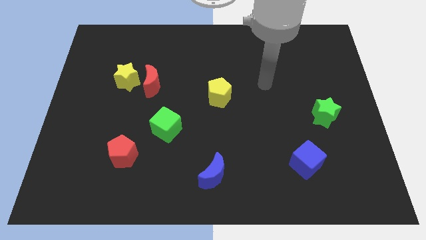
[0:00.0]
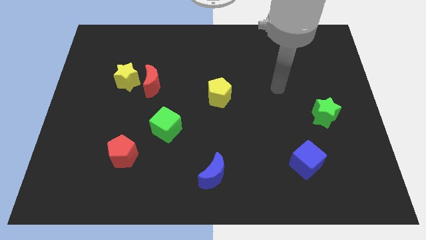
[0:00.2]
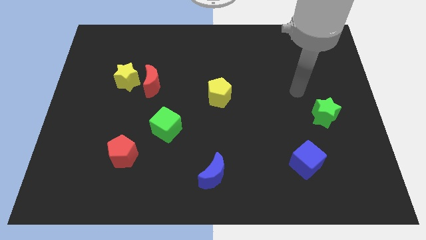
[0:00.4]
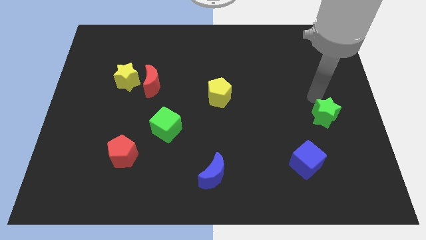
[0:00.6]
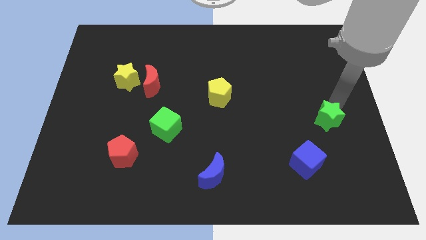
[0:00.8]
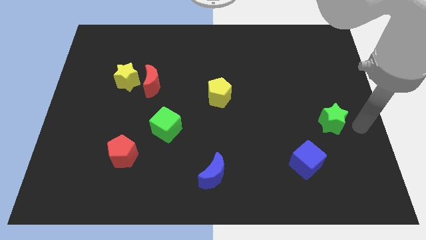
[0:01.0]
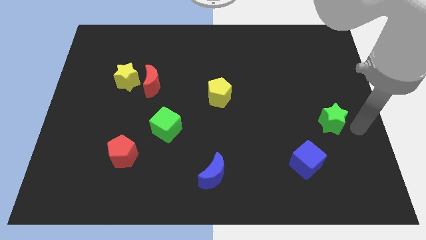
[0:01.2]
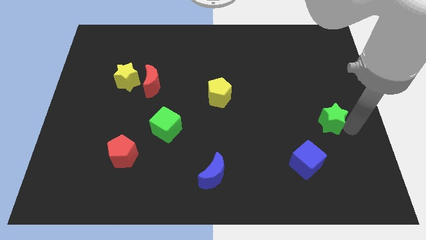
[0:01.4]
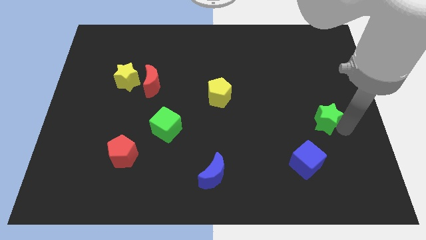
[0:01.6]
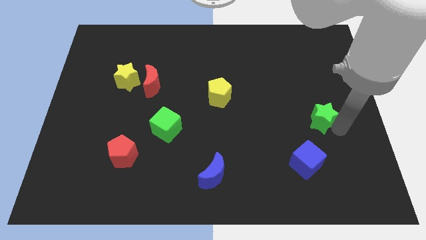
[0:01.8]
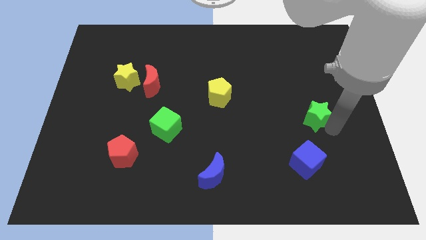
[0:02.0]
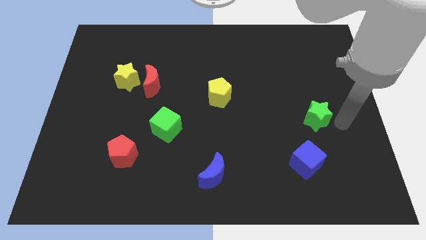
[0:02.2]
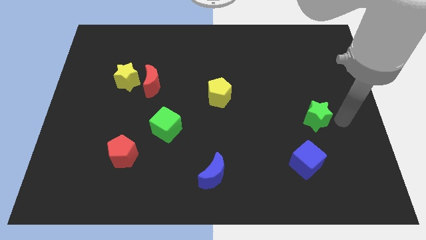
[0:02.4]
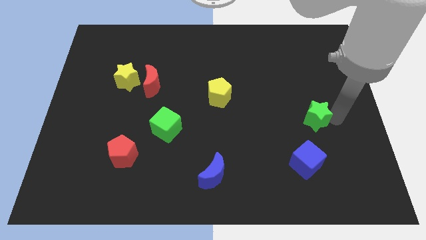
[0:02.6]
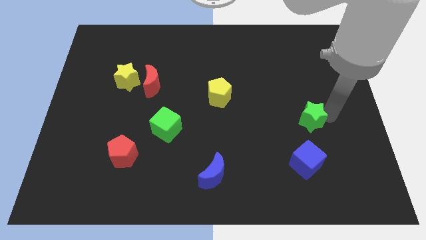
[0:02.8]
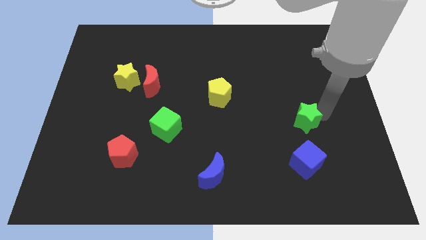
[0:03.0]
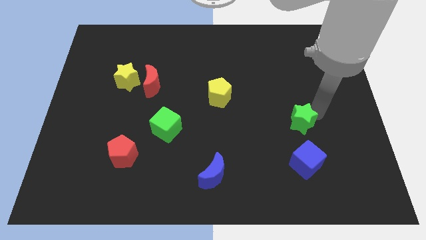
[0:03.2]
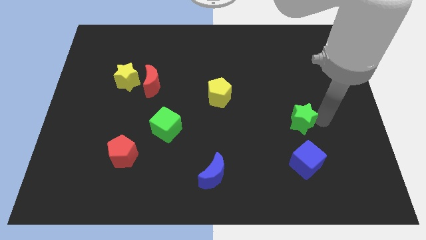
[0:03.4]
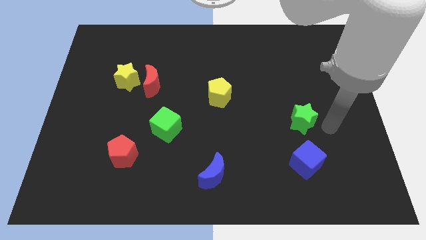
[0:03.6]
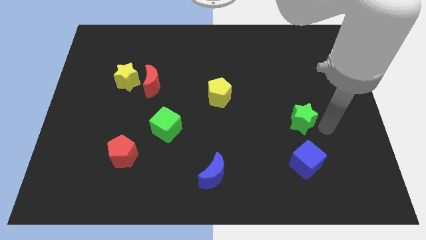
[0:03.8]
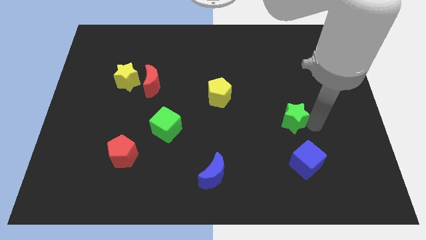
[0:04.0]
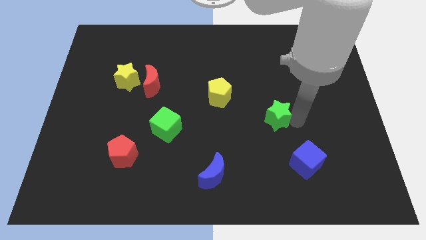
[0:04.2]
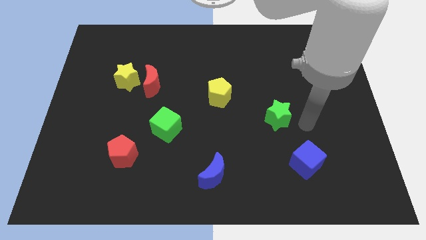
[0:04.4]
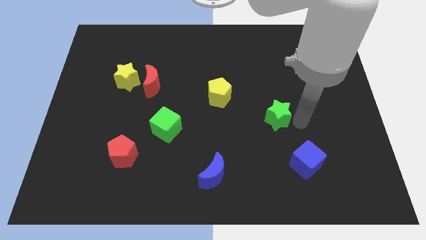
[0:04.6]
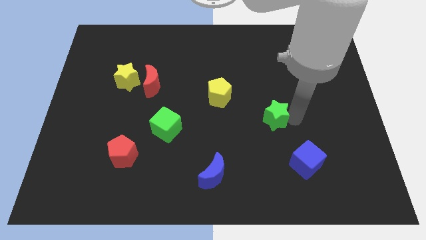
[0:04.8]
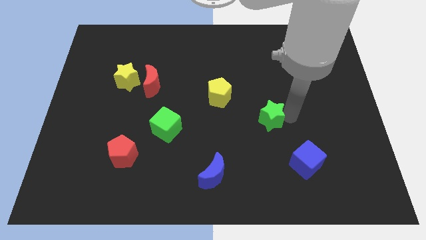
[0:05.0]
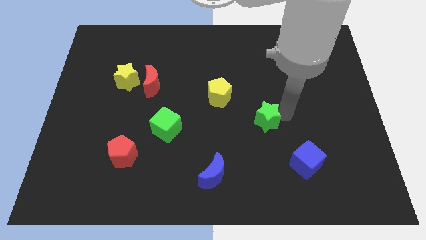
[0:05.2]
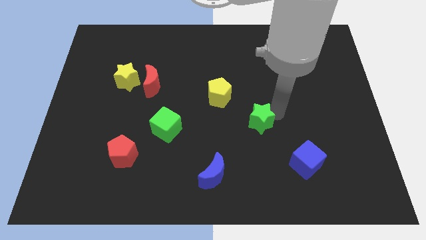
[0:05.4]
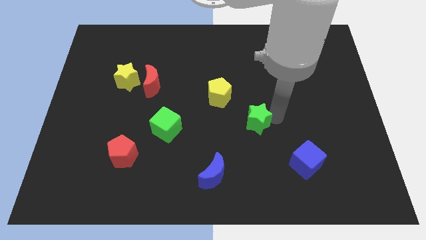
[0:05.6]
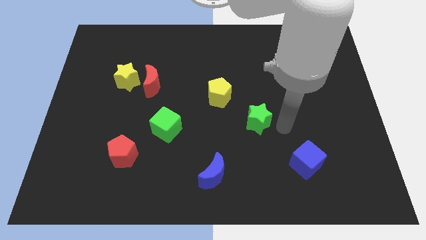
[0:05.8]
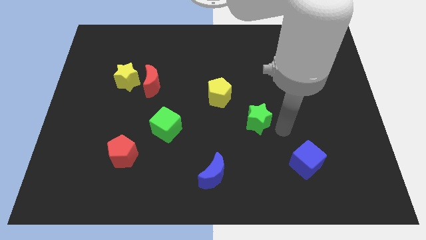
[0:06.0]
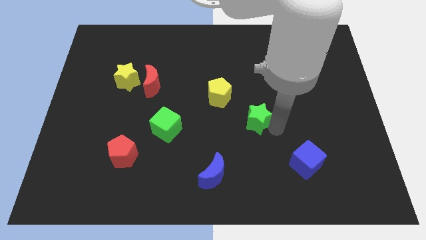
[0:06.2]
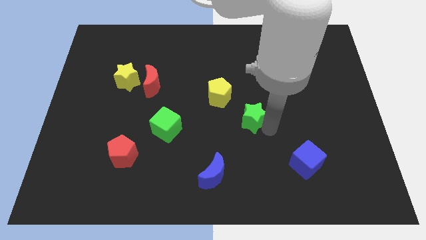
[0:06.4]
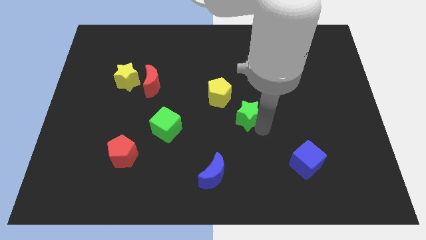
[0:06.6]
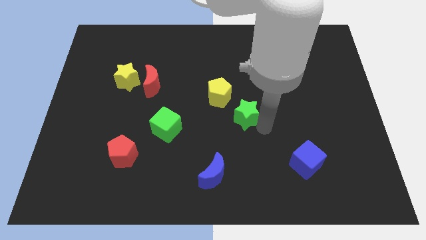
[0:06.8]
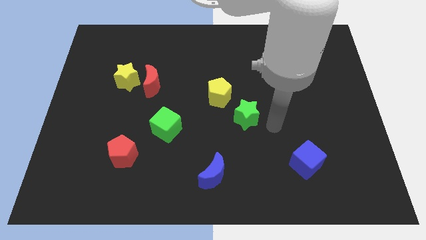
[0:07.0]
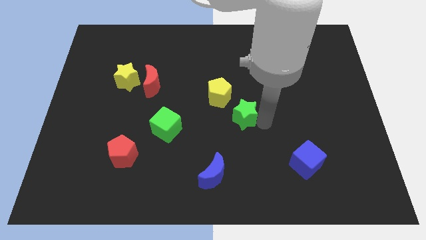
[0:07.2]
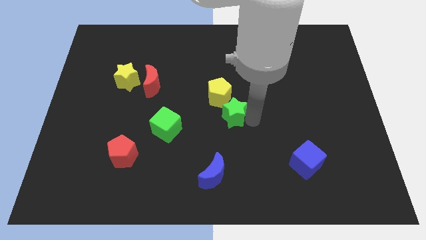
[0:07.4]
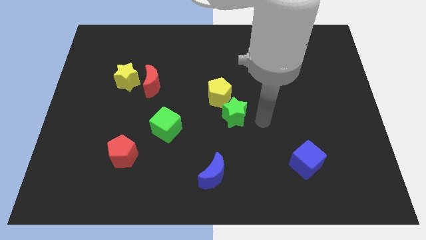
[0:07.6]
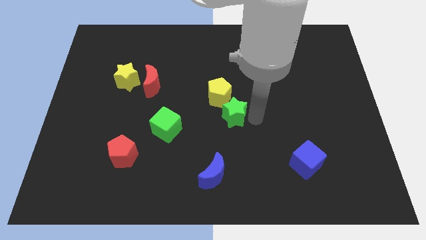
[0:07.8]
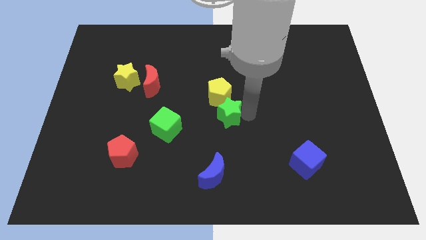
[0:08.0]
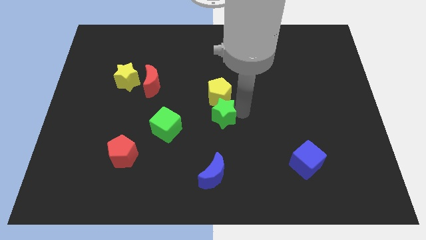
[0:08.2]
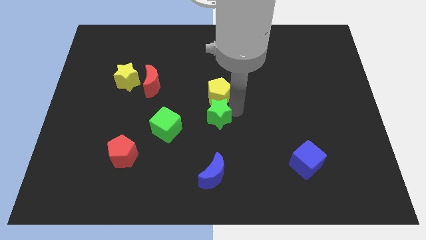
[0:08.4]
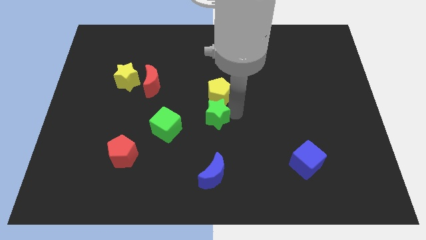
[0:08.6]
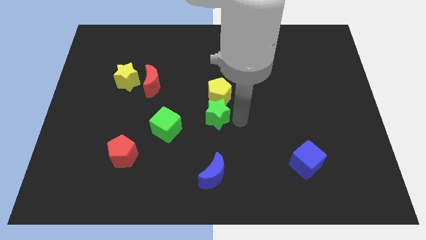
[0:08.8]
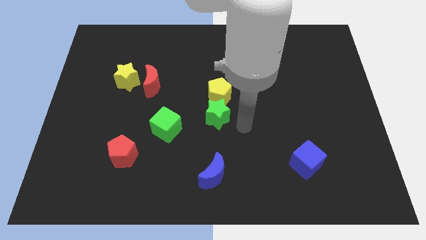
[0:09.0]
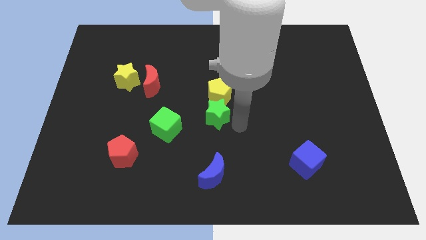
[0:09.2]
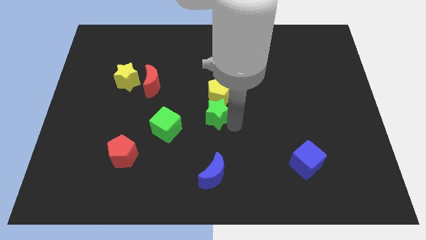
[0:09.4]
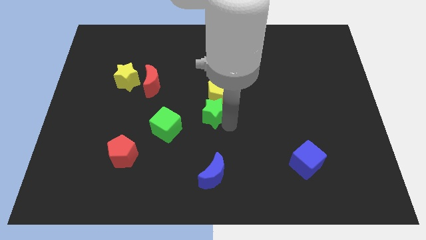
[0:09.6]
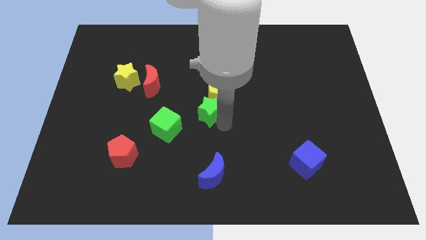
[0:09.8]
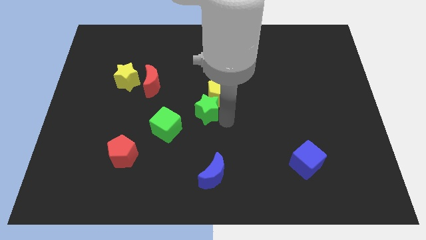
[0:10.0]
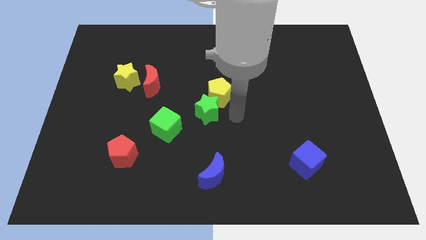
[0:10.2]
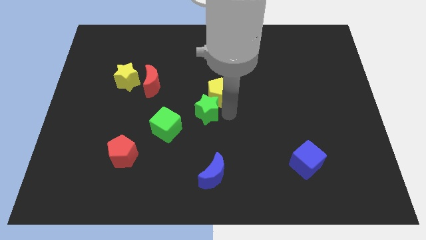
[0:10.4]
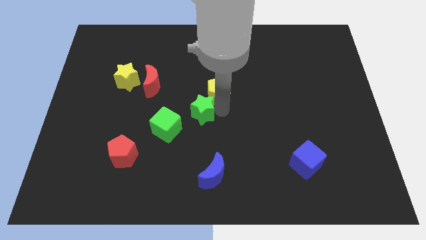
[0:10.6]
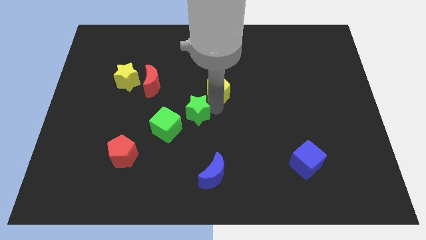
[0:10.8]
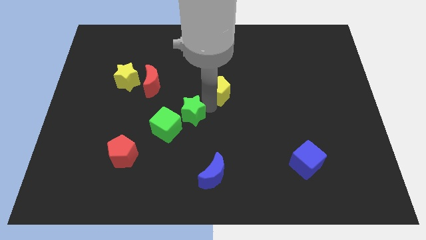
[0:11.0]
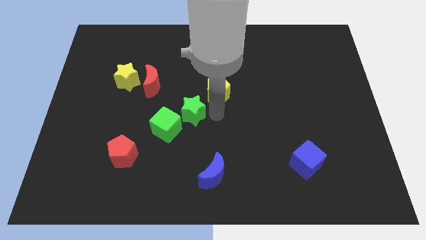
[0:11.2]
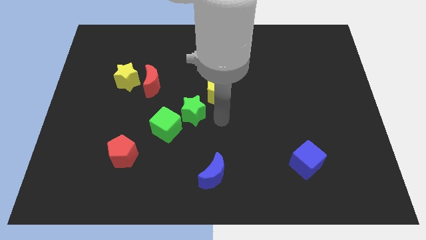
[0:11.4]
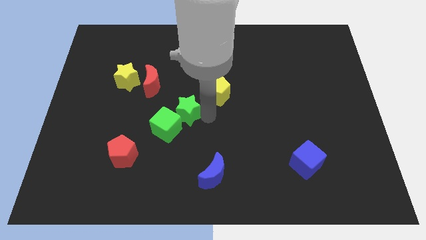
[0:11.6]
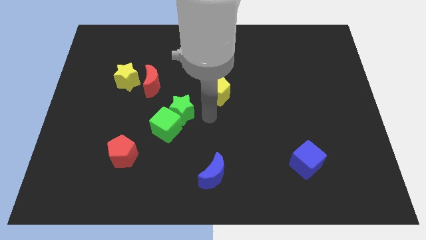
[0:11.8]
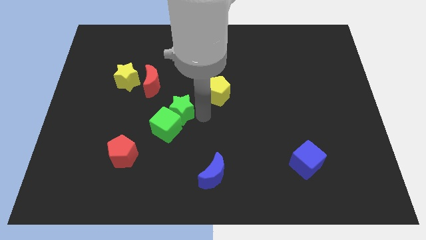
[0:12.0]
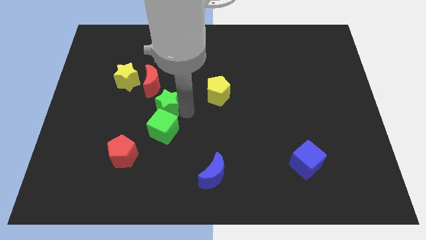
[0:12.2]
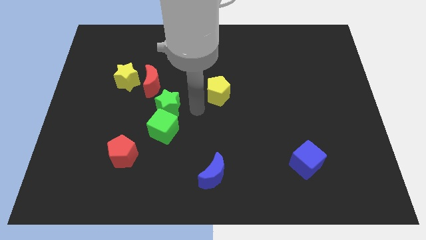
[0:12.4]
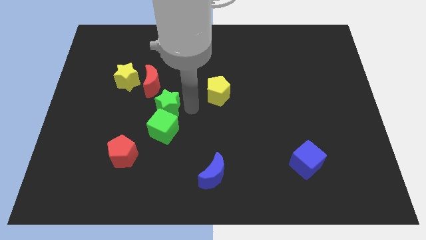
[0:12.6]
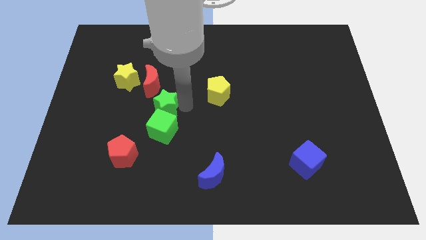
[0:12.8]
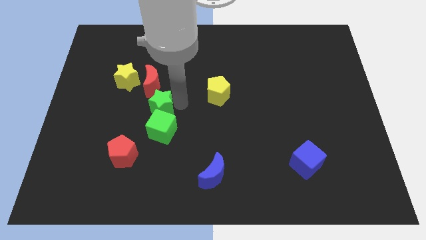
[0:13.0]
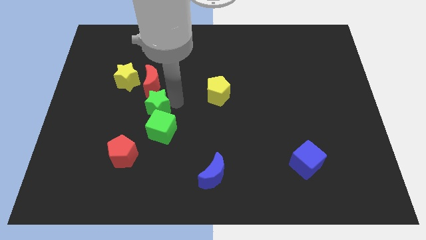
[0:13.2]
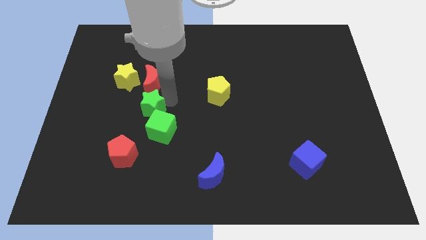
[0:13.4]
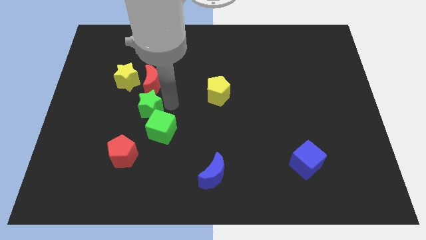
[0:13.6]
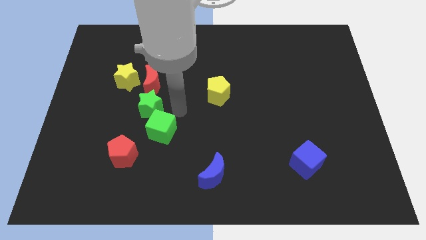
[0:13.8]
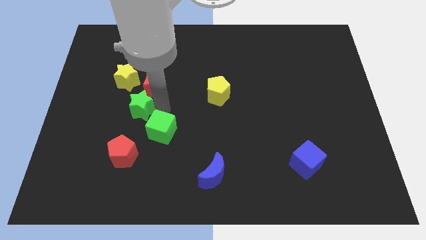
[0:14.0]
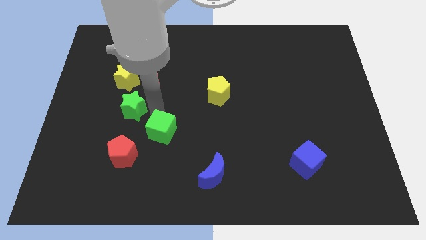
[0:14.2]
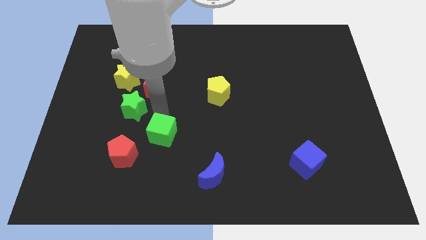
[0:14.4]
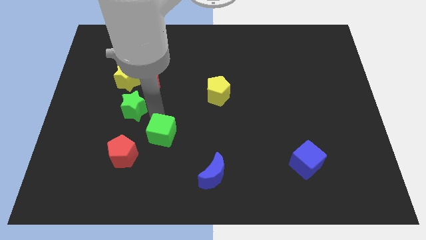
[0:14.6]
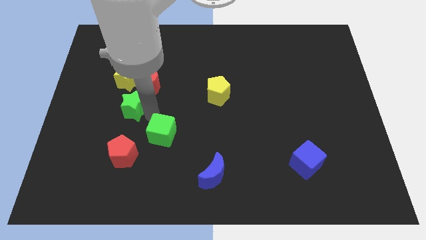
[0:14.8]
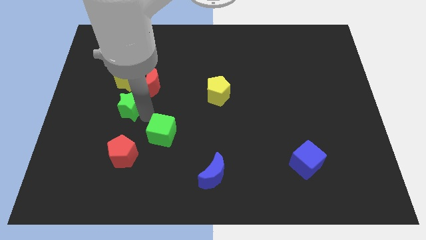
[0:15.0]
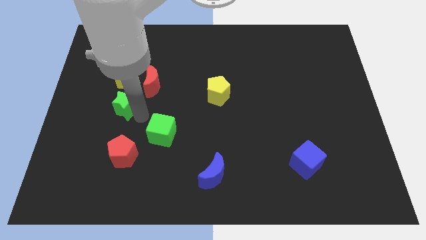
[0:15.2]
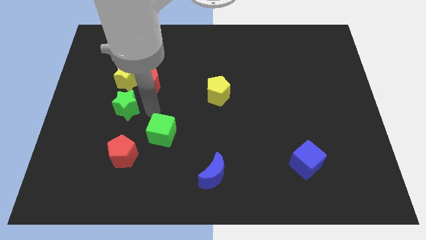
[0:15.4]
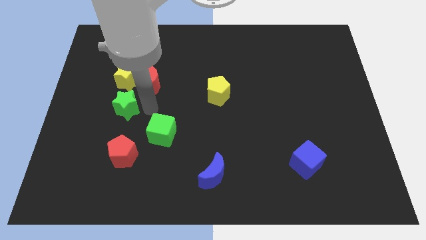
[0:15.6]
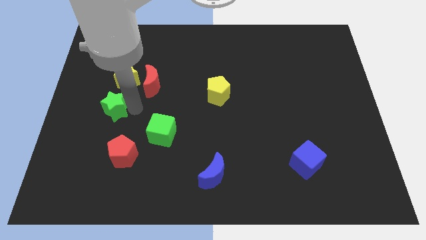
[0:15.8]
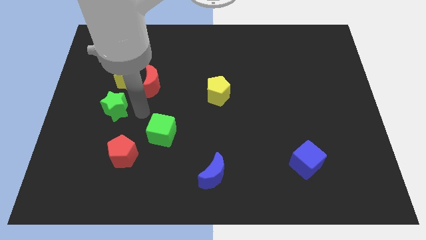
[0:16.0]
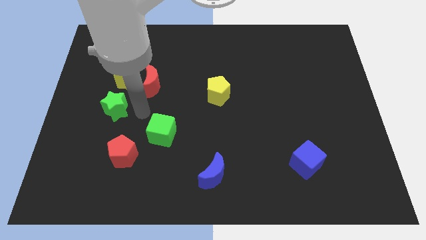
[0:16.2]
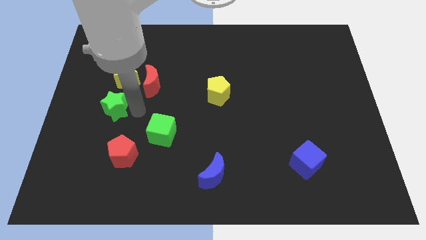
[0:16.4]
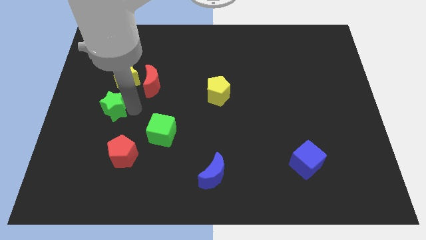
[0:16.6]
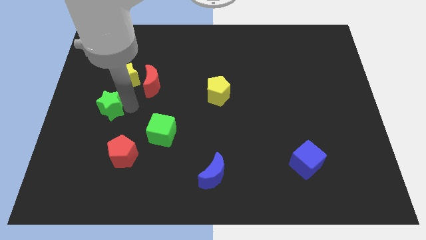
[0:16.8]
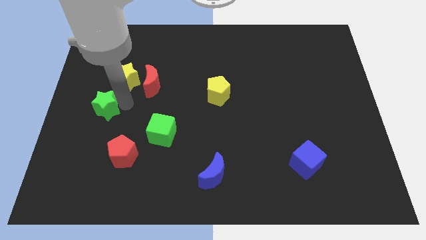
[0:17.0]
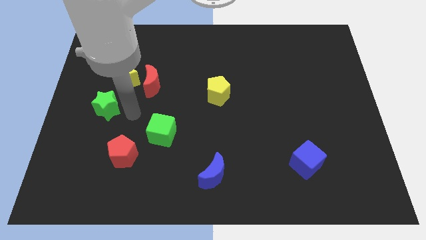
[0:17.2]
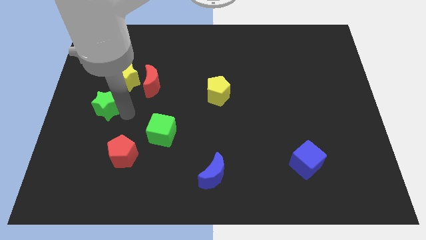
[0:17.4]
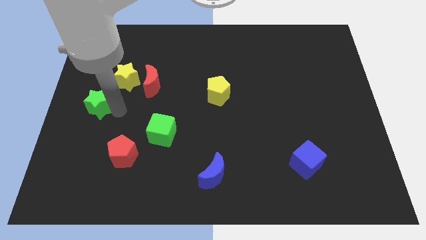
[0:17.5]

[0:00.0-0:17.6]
move the green star to the left side of the board
